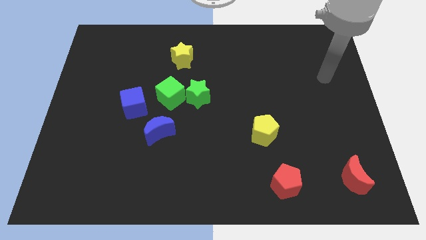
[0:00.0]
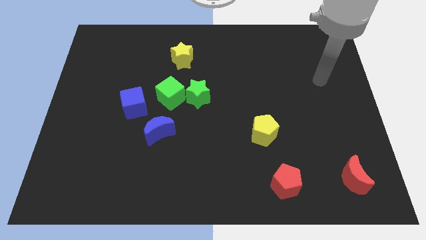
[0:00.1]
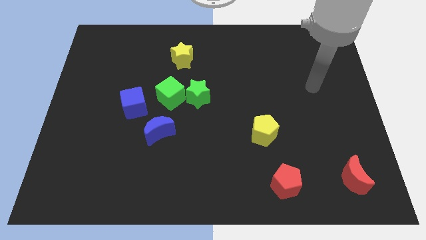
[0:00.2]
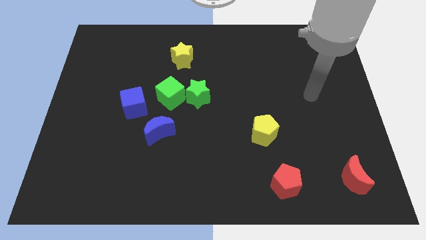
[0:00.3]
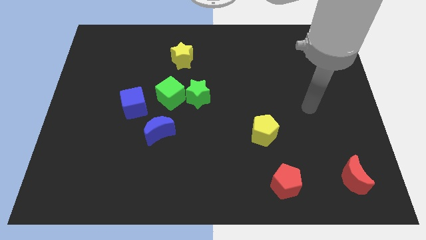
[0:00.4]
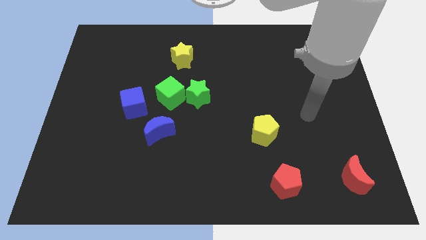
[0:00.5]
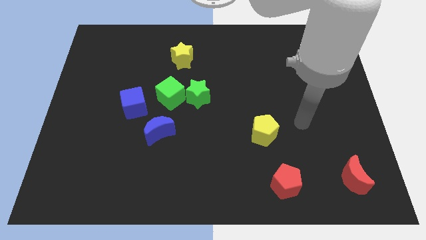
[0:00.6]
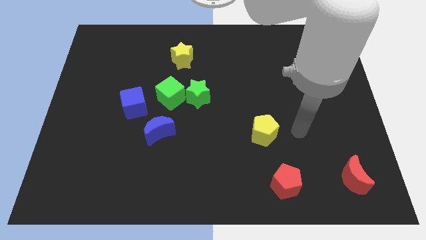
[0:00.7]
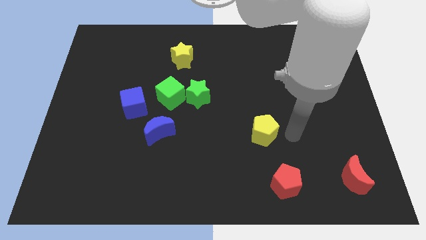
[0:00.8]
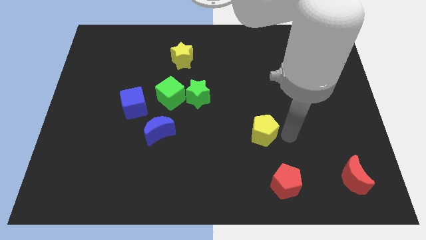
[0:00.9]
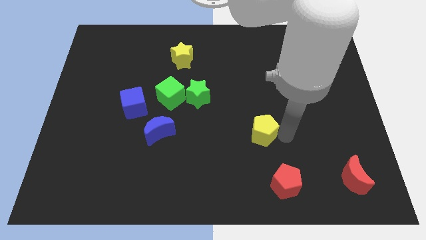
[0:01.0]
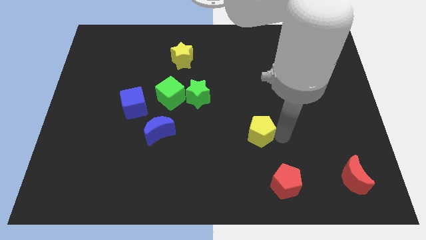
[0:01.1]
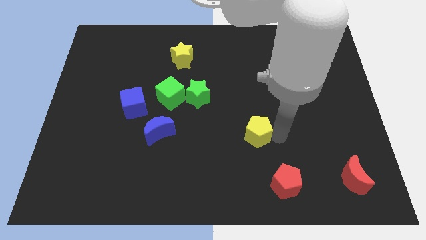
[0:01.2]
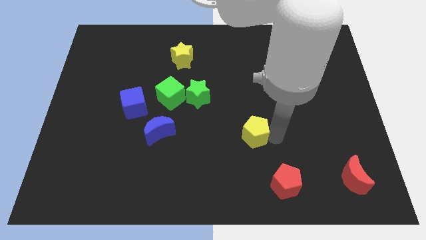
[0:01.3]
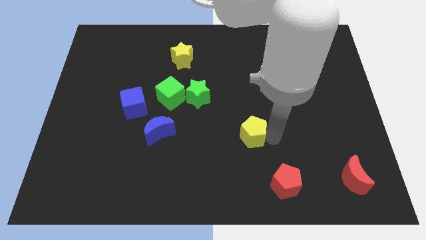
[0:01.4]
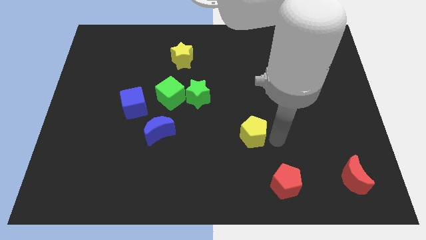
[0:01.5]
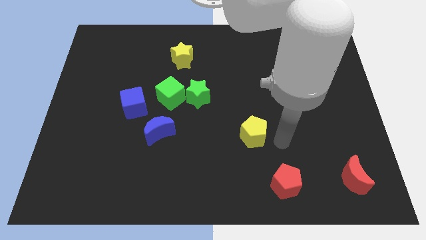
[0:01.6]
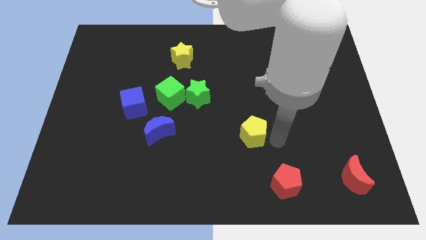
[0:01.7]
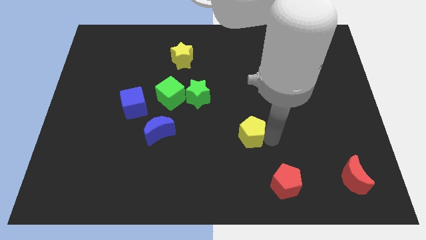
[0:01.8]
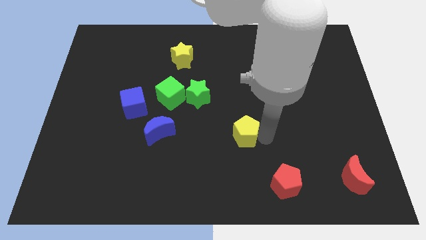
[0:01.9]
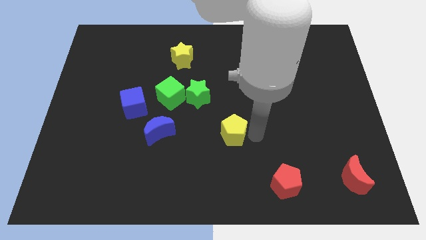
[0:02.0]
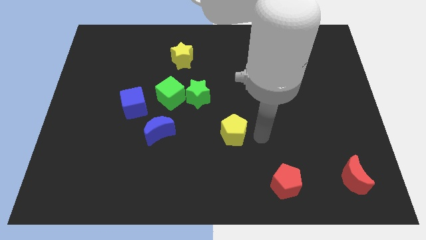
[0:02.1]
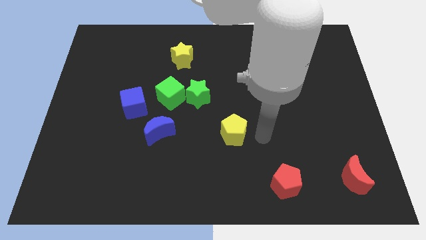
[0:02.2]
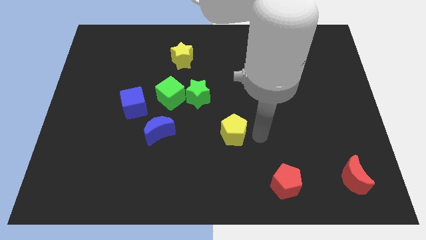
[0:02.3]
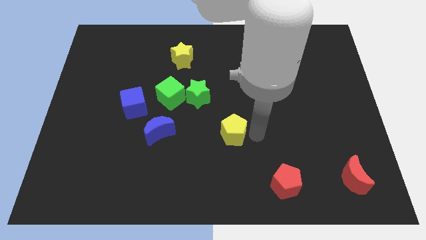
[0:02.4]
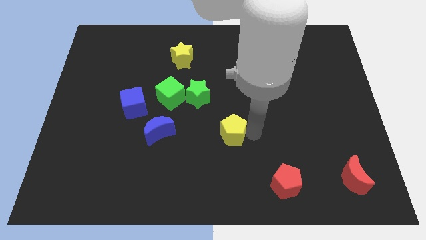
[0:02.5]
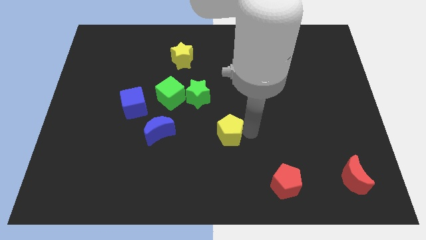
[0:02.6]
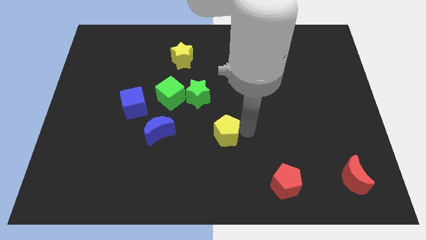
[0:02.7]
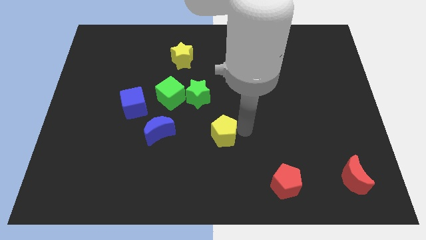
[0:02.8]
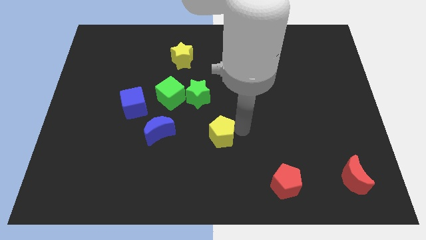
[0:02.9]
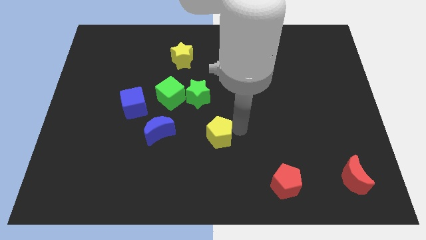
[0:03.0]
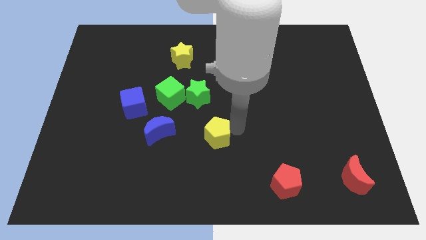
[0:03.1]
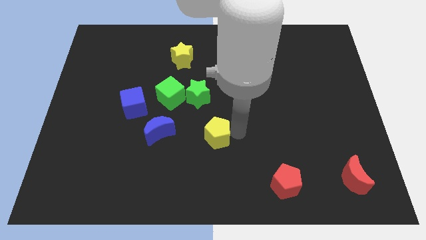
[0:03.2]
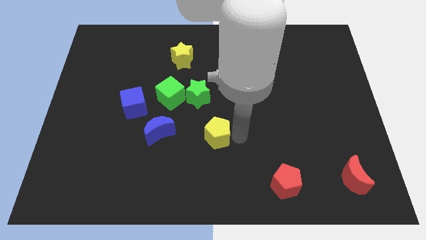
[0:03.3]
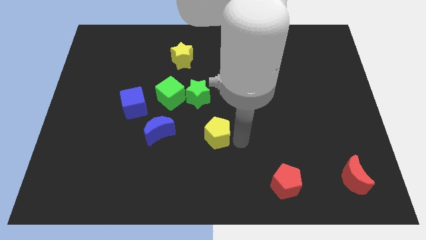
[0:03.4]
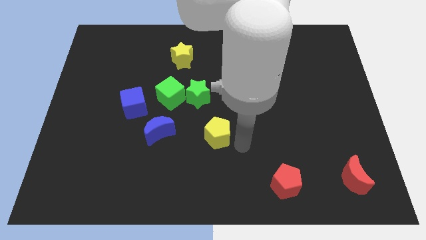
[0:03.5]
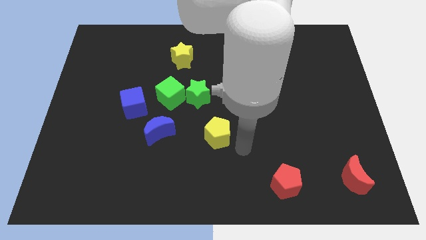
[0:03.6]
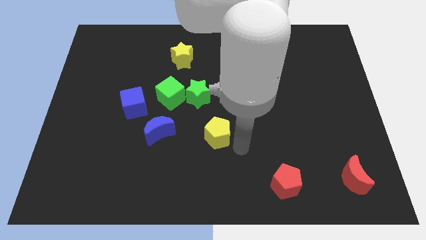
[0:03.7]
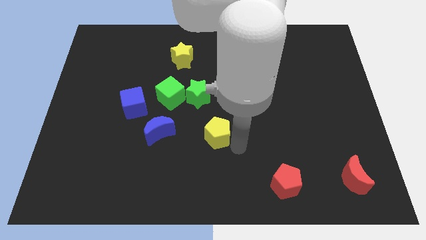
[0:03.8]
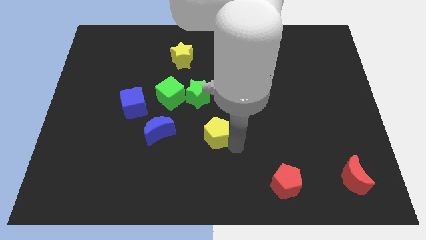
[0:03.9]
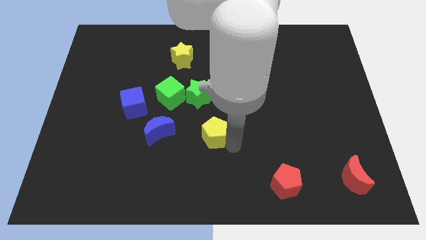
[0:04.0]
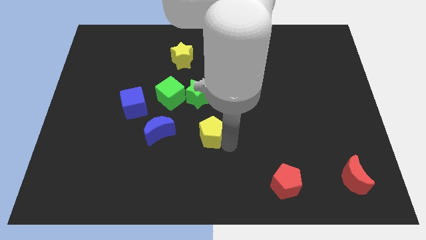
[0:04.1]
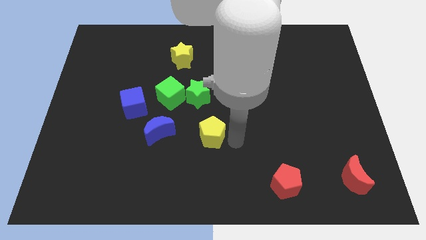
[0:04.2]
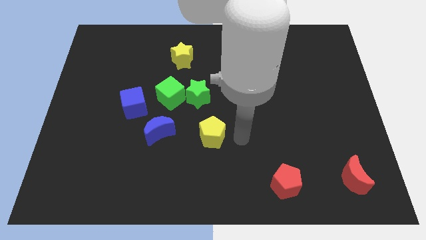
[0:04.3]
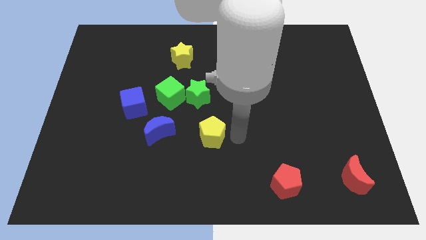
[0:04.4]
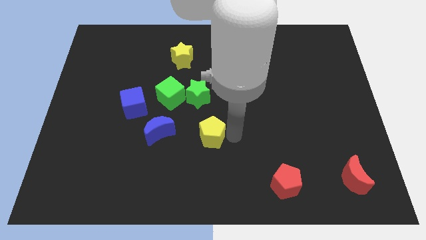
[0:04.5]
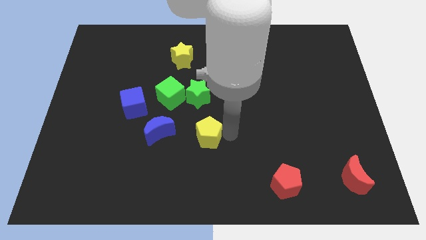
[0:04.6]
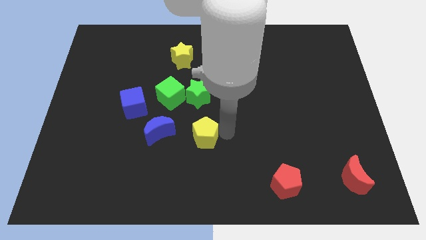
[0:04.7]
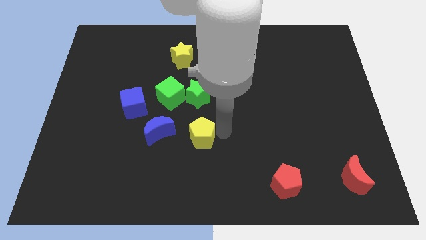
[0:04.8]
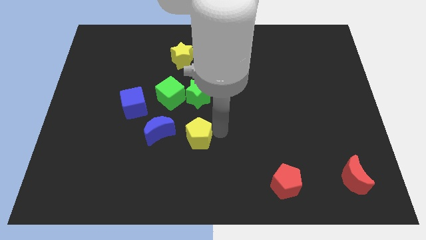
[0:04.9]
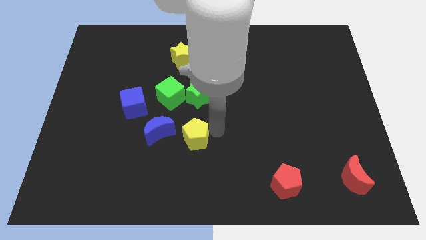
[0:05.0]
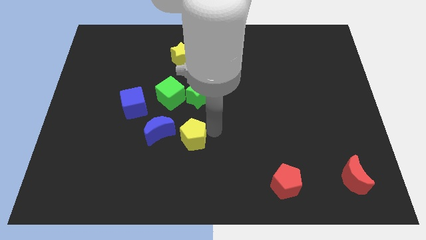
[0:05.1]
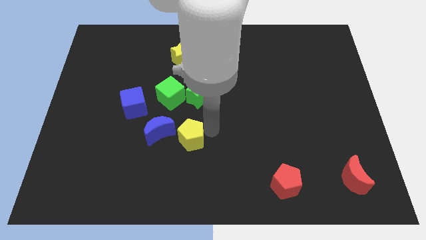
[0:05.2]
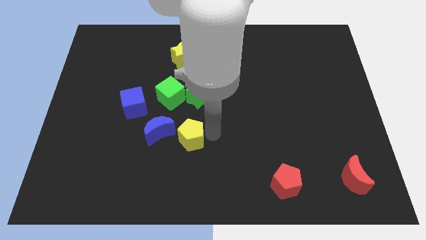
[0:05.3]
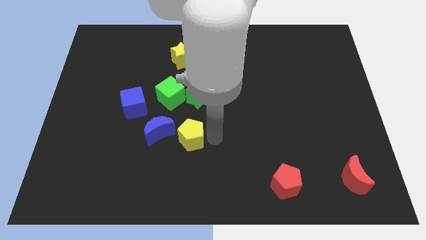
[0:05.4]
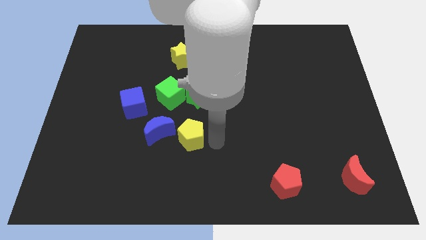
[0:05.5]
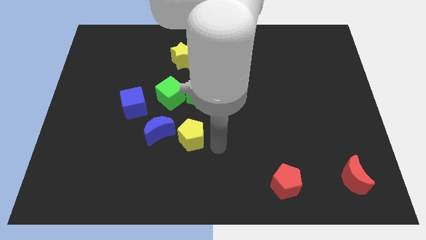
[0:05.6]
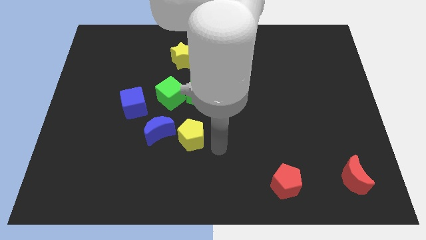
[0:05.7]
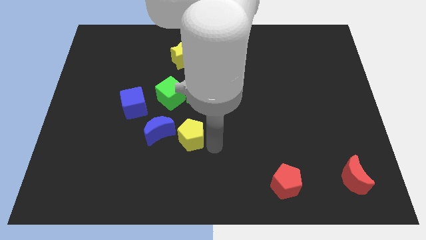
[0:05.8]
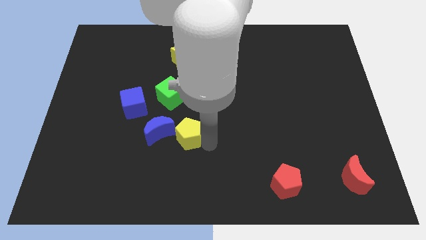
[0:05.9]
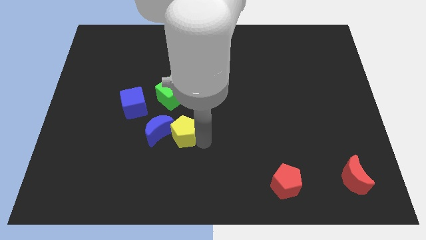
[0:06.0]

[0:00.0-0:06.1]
put the yellow pentagon to the blue moon

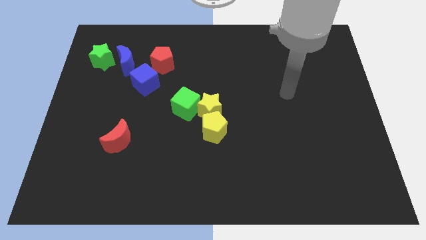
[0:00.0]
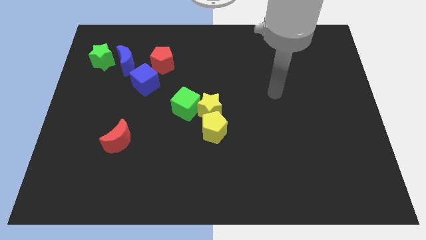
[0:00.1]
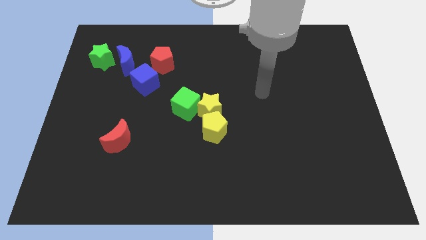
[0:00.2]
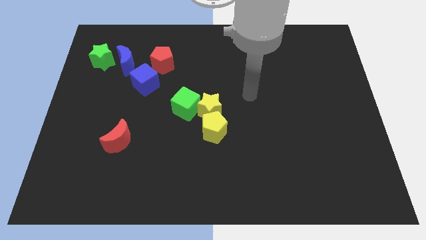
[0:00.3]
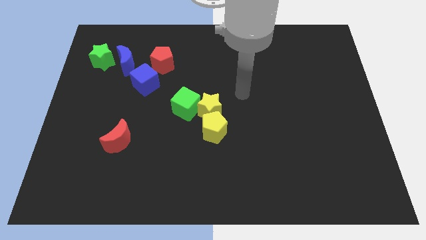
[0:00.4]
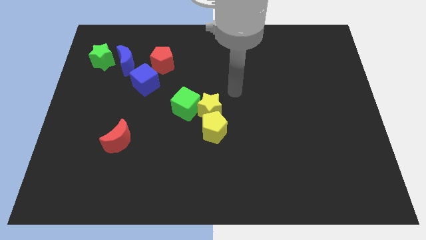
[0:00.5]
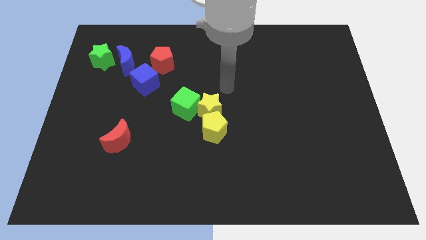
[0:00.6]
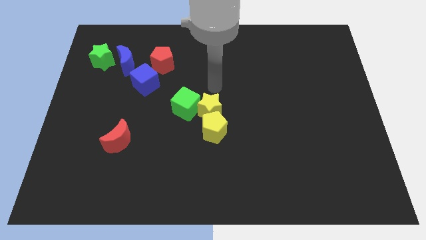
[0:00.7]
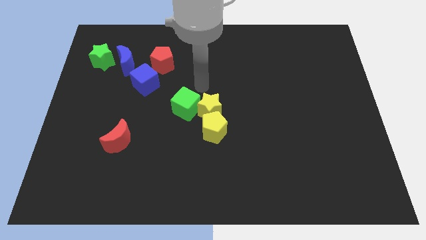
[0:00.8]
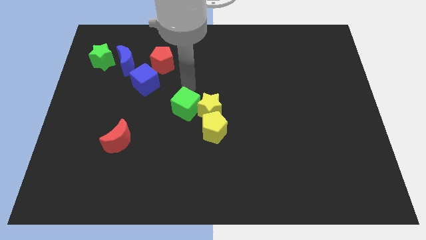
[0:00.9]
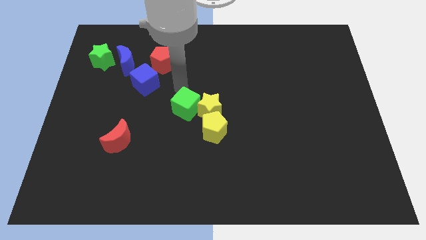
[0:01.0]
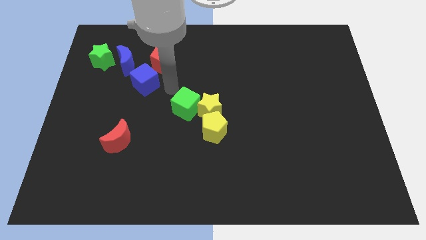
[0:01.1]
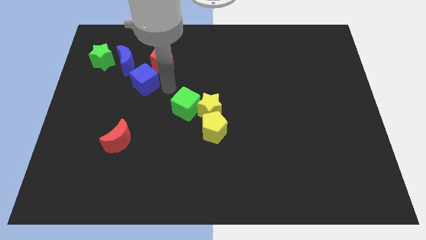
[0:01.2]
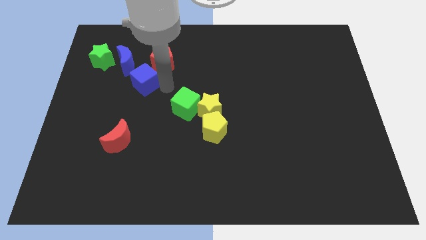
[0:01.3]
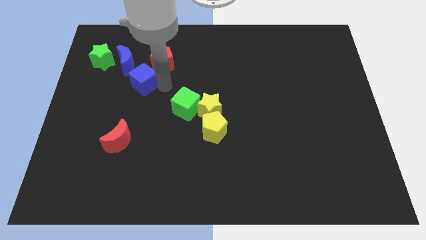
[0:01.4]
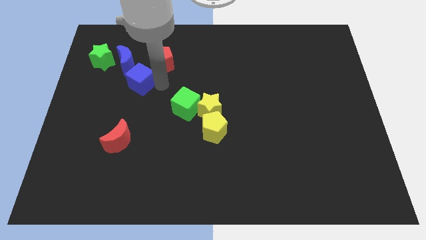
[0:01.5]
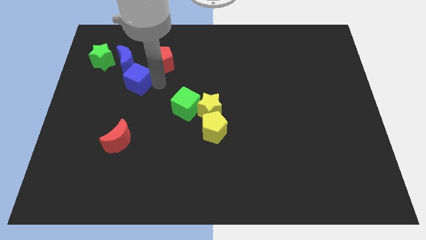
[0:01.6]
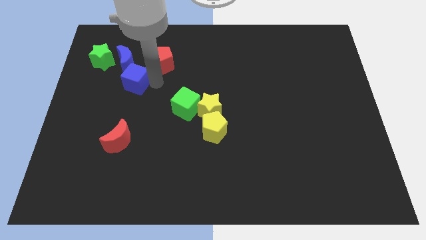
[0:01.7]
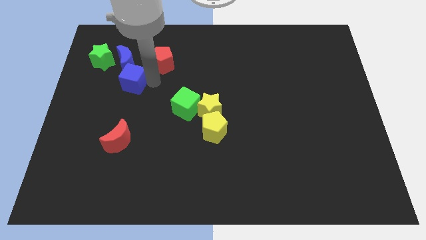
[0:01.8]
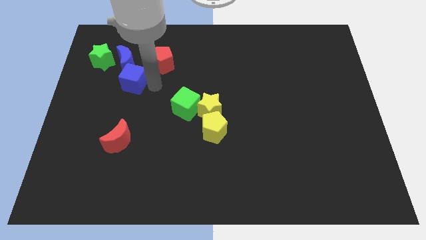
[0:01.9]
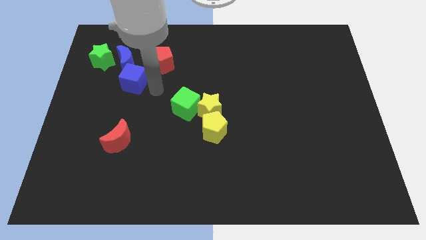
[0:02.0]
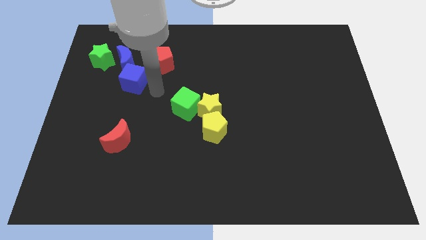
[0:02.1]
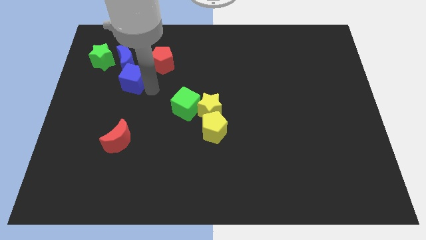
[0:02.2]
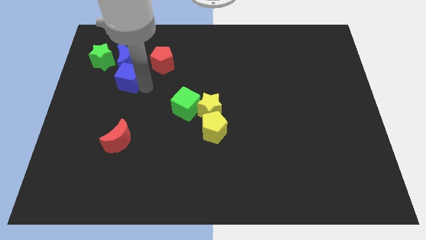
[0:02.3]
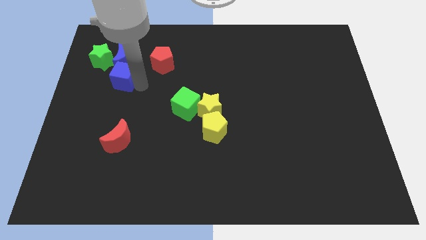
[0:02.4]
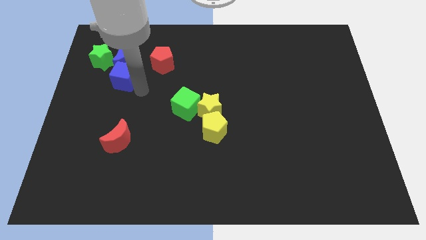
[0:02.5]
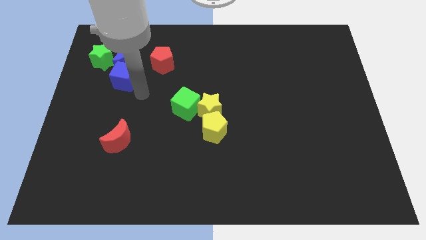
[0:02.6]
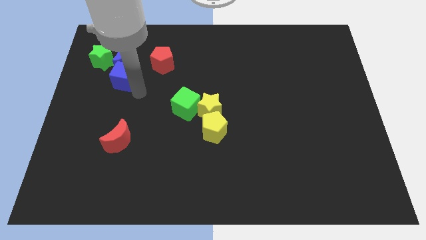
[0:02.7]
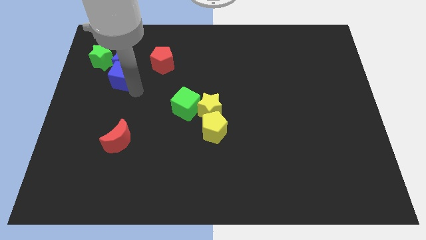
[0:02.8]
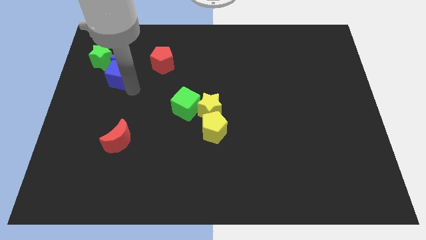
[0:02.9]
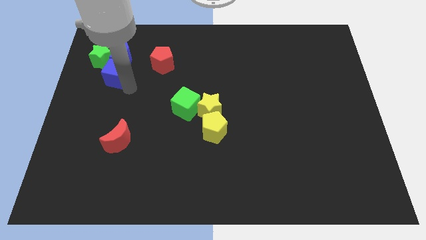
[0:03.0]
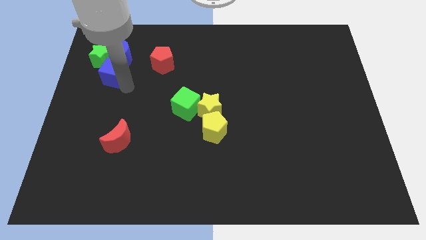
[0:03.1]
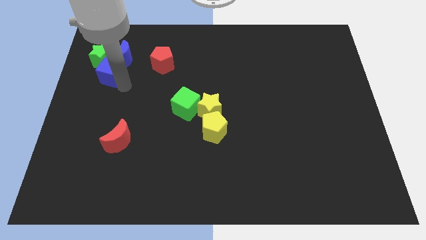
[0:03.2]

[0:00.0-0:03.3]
move the blue cube to the green star
